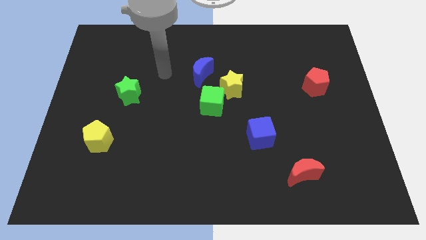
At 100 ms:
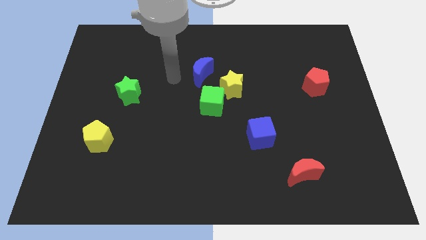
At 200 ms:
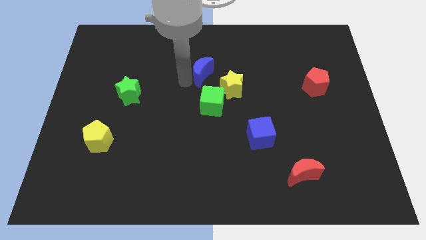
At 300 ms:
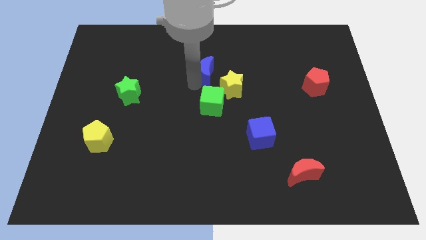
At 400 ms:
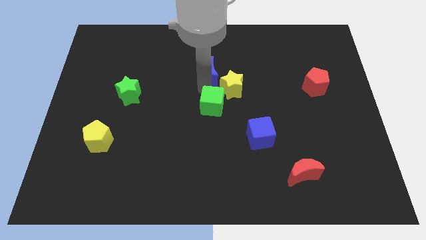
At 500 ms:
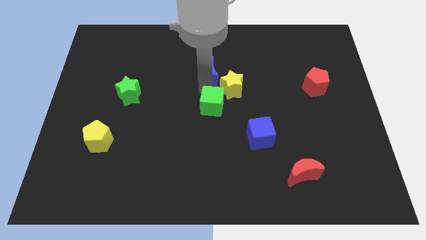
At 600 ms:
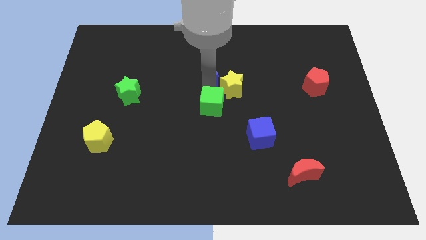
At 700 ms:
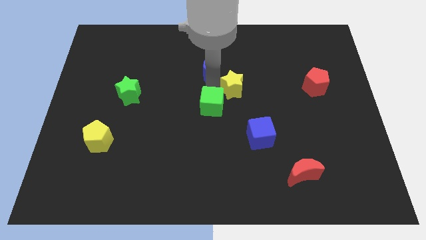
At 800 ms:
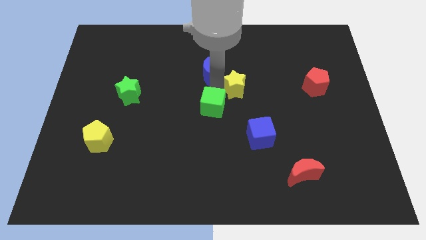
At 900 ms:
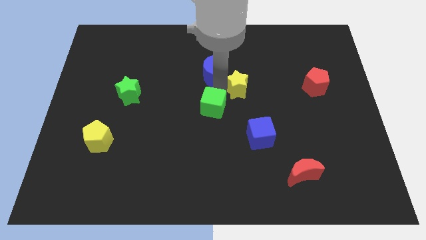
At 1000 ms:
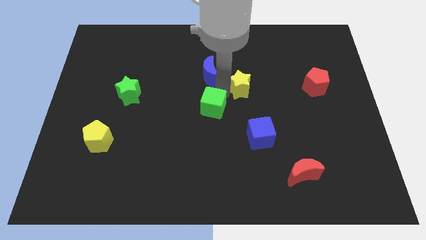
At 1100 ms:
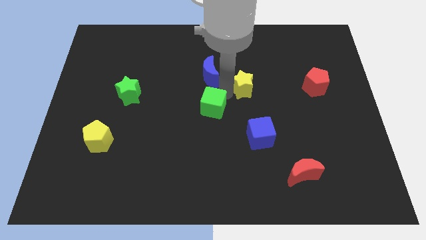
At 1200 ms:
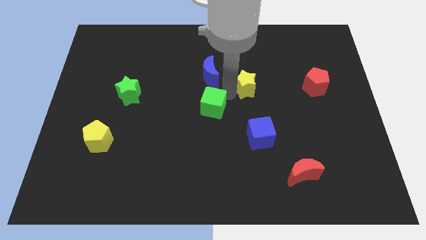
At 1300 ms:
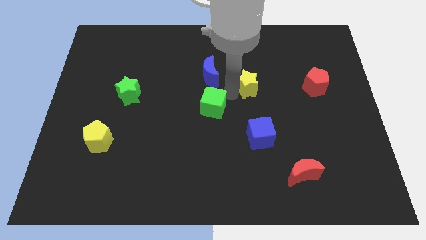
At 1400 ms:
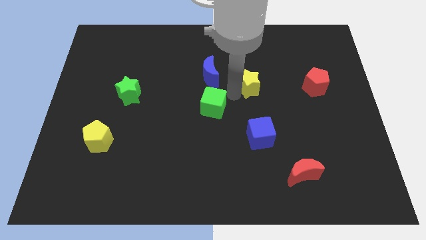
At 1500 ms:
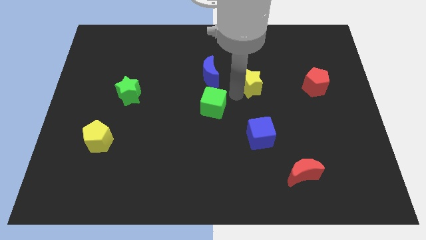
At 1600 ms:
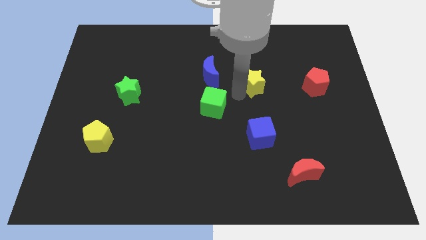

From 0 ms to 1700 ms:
pull the yellow star apart from the green cube and blue moon

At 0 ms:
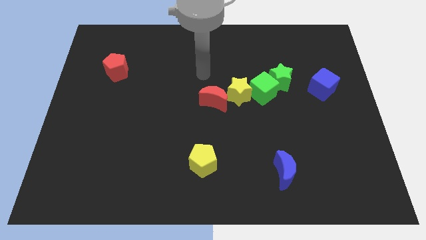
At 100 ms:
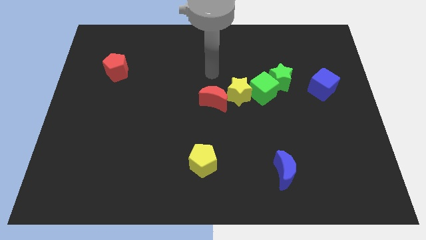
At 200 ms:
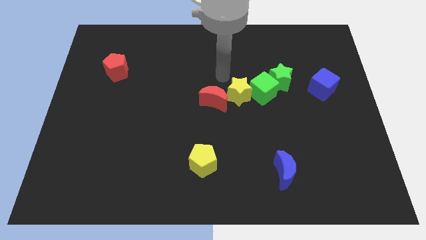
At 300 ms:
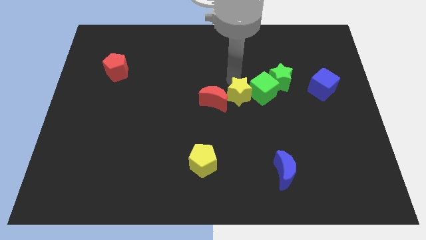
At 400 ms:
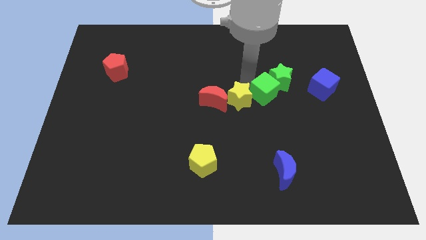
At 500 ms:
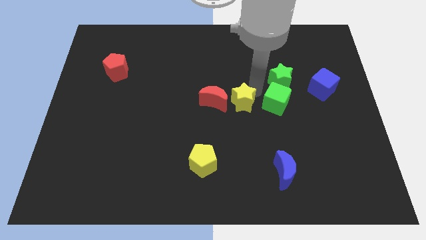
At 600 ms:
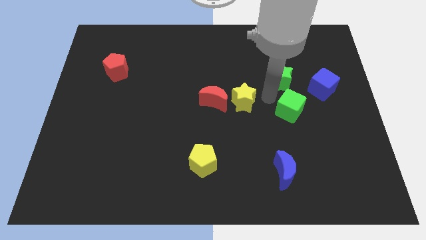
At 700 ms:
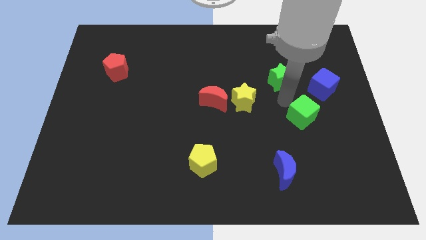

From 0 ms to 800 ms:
pull the green star apart from the green cube

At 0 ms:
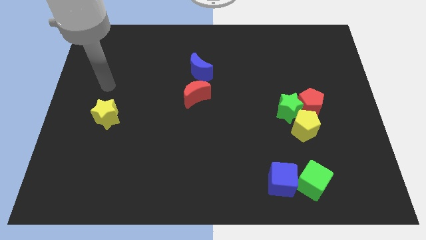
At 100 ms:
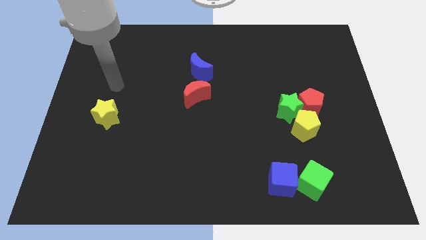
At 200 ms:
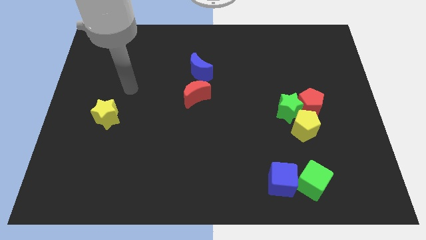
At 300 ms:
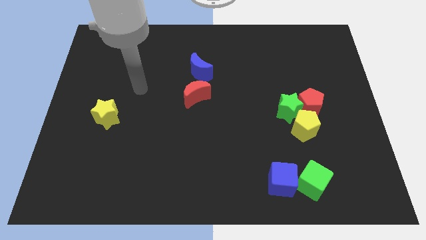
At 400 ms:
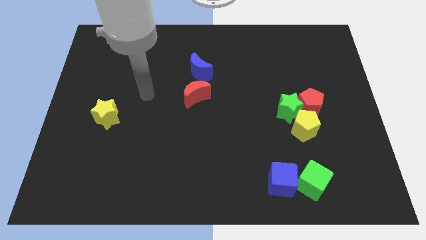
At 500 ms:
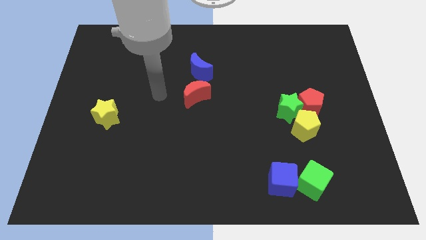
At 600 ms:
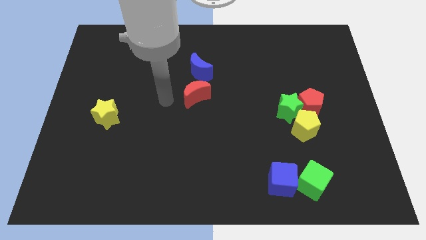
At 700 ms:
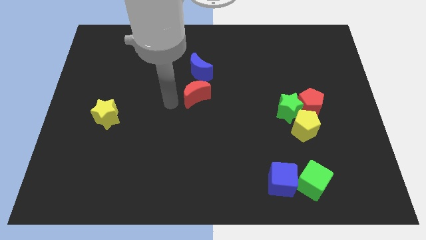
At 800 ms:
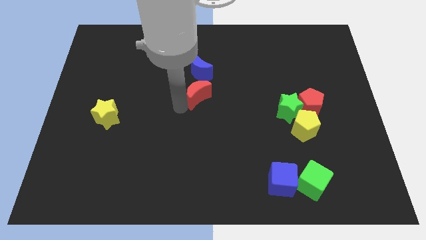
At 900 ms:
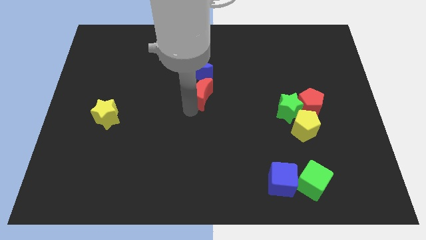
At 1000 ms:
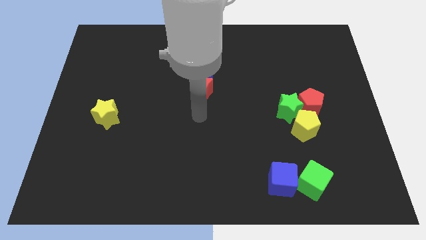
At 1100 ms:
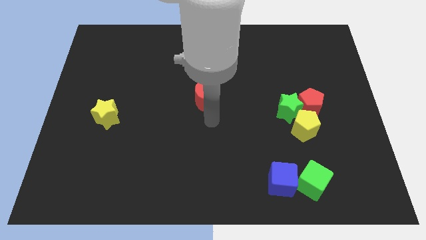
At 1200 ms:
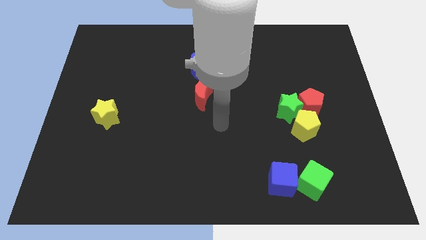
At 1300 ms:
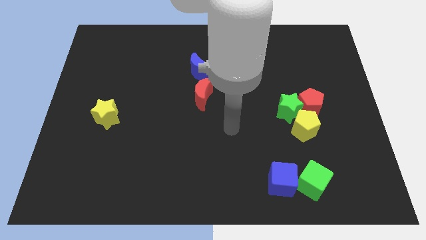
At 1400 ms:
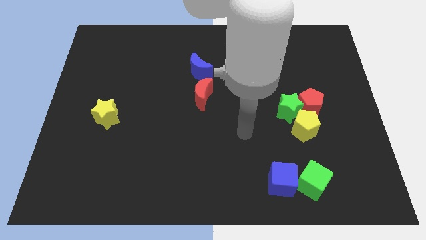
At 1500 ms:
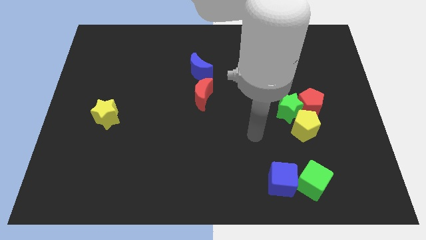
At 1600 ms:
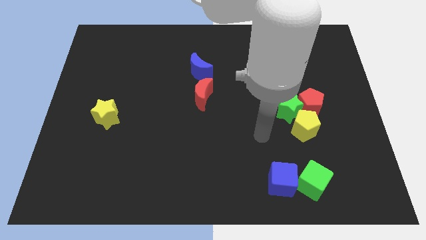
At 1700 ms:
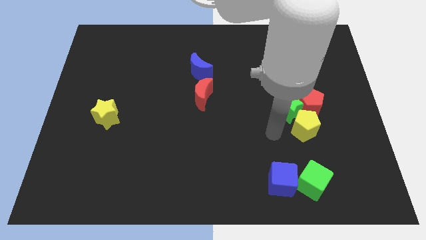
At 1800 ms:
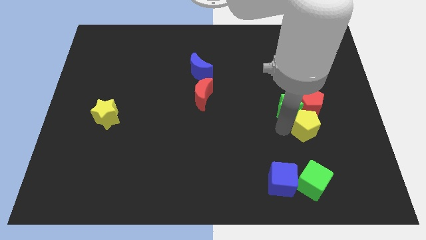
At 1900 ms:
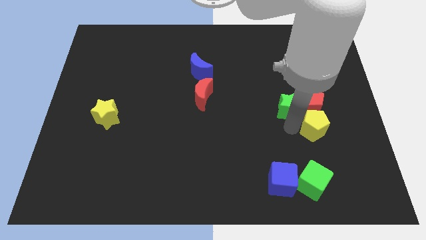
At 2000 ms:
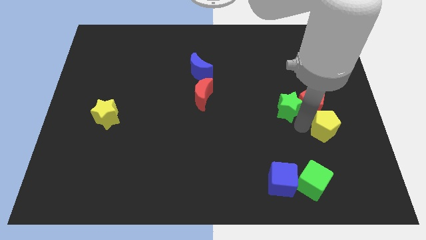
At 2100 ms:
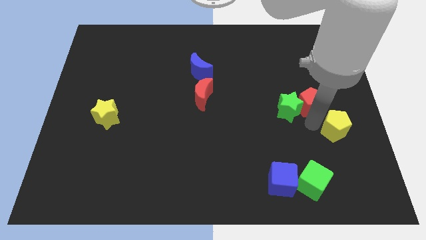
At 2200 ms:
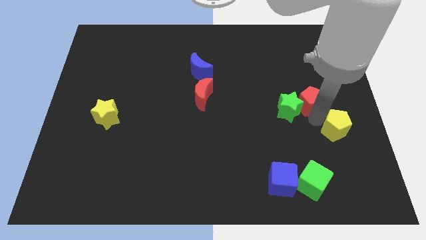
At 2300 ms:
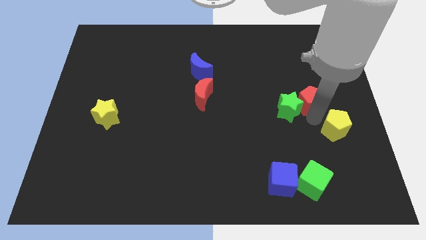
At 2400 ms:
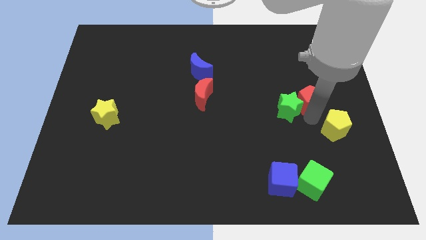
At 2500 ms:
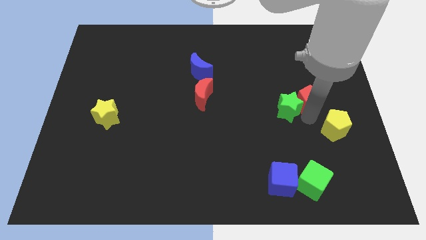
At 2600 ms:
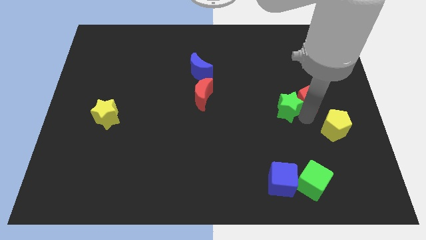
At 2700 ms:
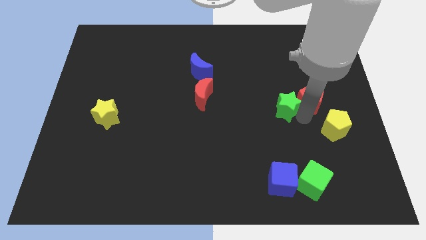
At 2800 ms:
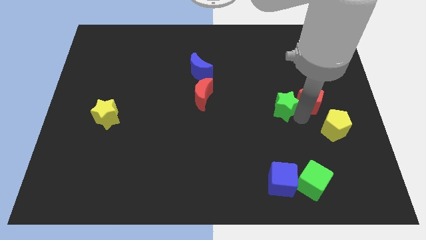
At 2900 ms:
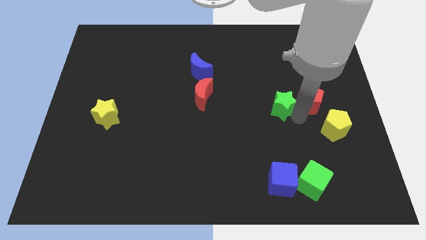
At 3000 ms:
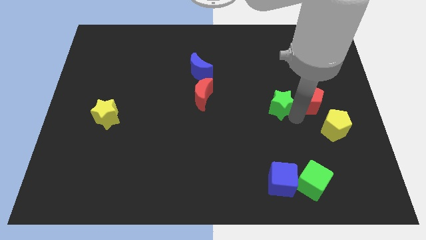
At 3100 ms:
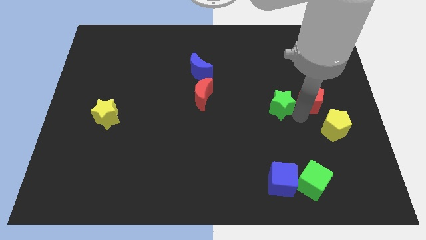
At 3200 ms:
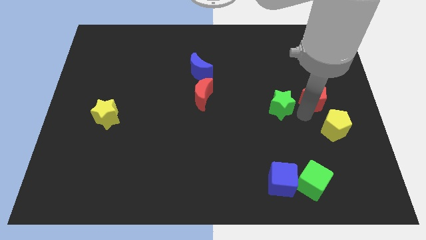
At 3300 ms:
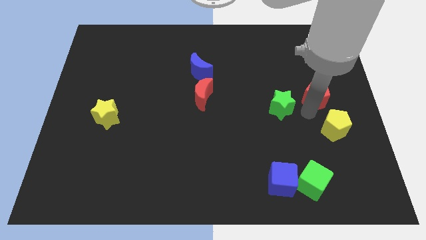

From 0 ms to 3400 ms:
move the green star away from the red pentagon and yellow pentagon

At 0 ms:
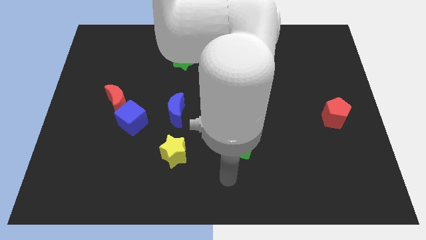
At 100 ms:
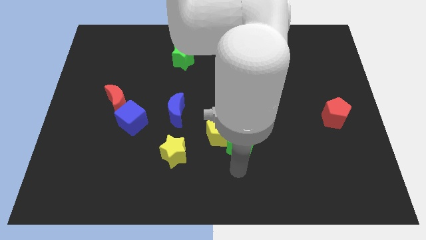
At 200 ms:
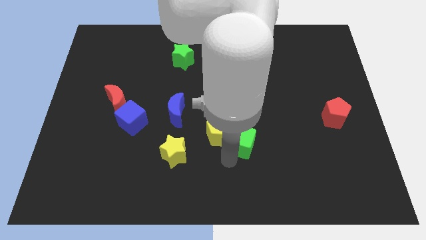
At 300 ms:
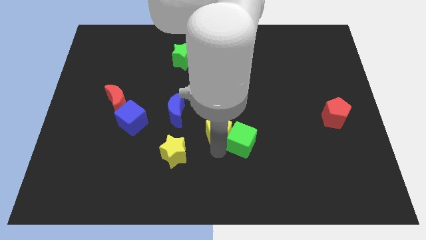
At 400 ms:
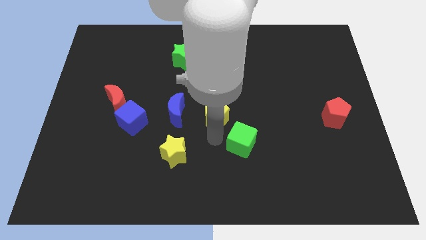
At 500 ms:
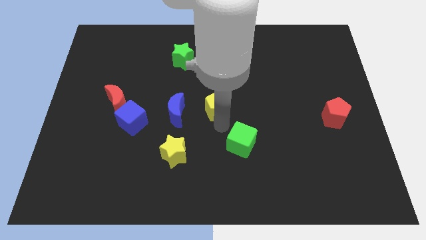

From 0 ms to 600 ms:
move the green cube away from the yellow pentagon

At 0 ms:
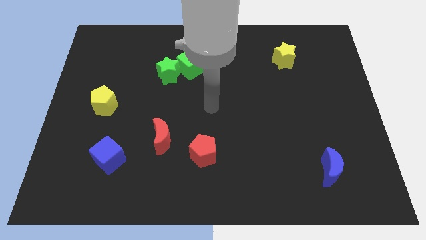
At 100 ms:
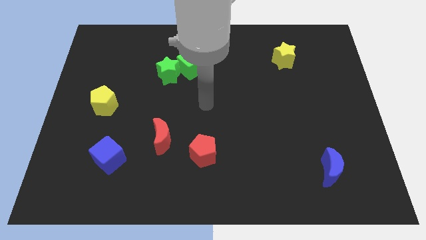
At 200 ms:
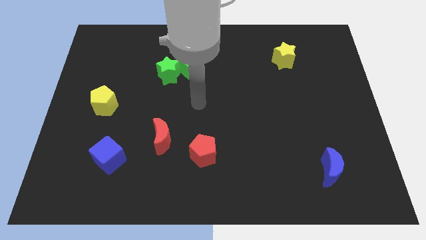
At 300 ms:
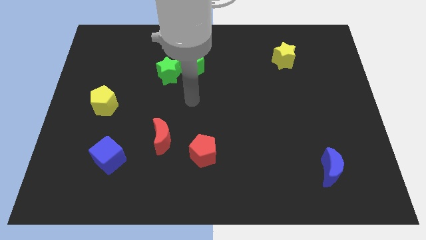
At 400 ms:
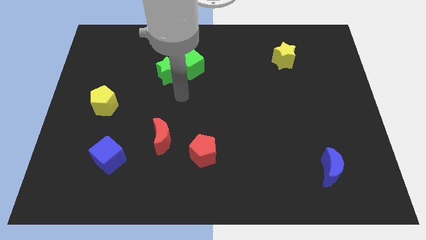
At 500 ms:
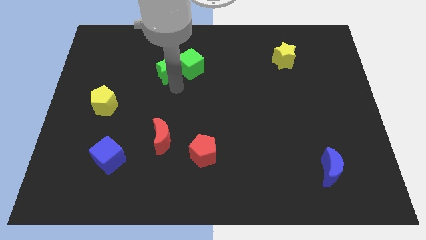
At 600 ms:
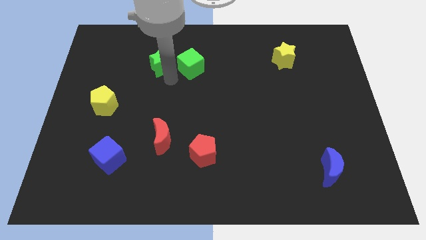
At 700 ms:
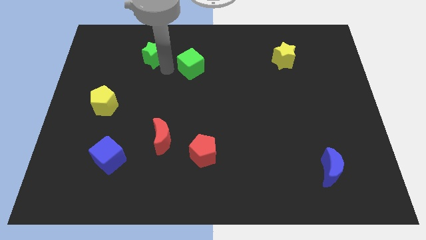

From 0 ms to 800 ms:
pull the green cube apart from the green star

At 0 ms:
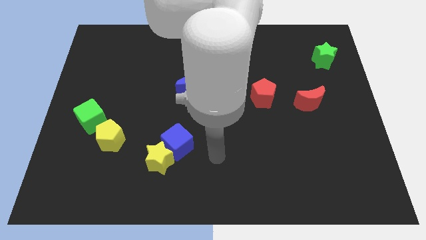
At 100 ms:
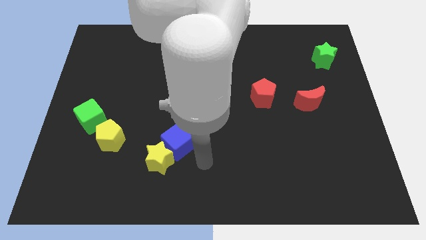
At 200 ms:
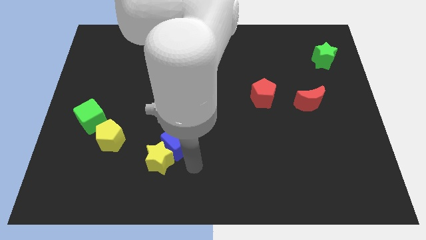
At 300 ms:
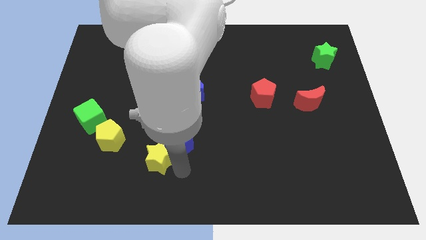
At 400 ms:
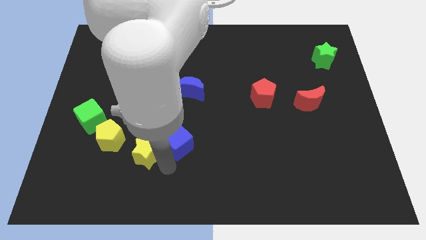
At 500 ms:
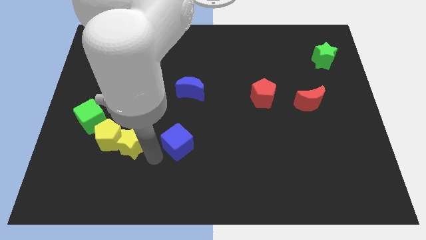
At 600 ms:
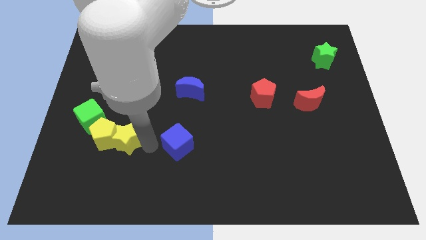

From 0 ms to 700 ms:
move the blue cube away from the yellow star

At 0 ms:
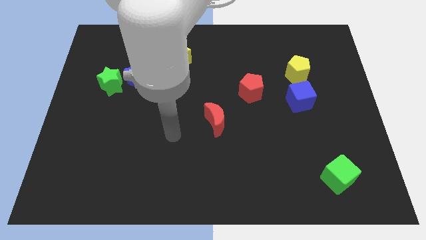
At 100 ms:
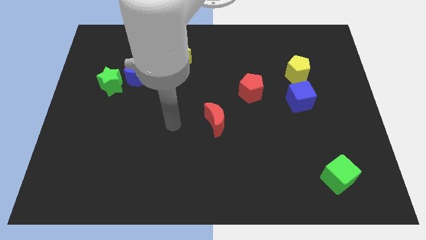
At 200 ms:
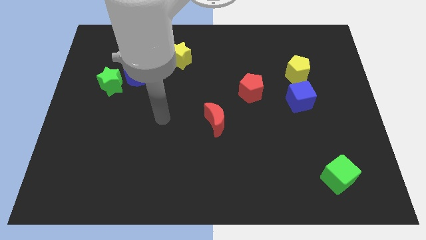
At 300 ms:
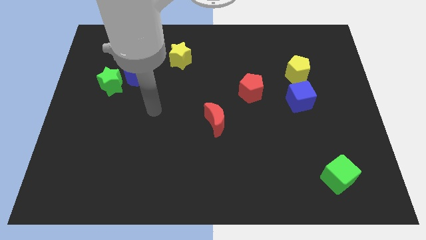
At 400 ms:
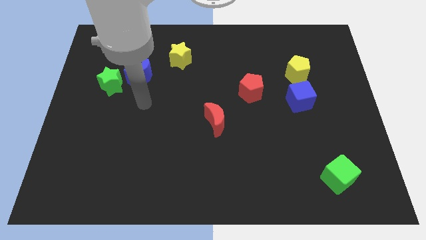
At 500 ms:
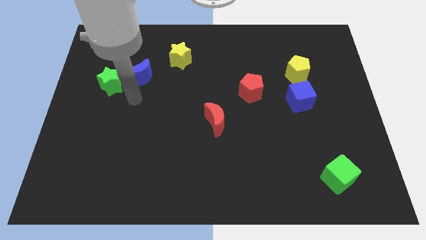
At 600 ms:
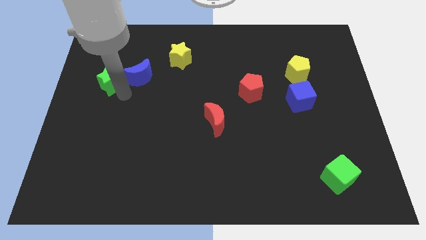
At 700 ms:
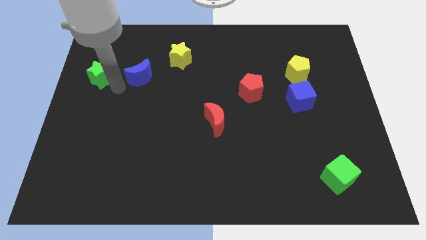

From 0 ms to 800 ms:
move the blue moon away from the green star

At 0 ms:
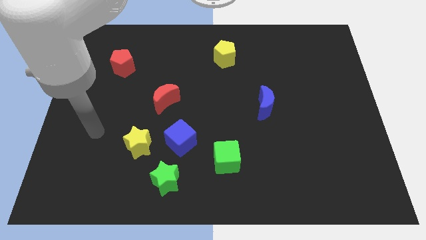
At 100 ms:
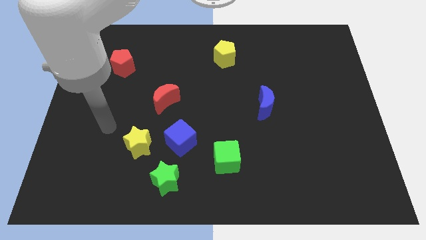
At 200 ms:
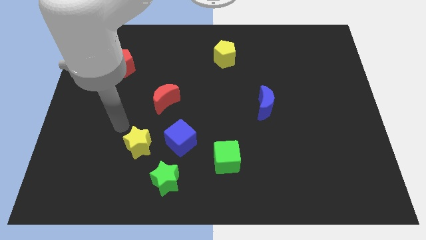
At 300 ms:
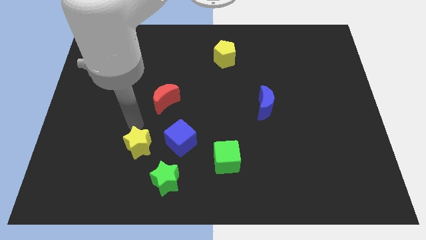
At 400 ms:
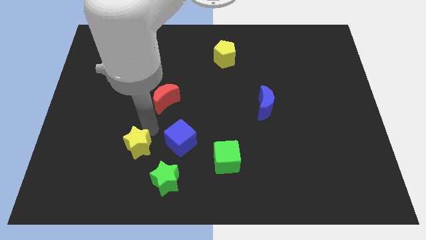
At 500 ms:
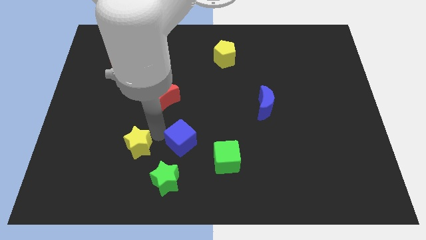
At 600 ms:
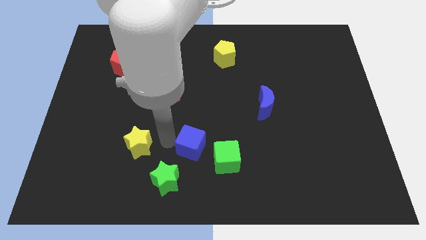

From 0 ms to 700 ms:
move the yellow star away from the blue cube
